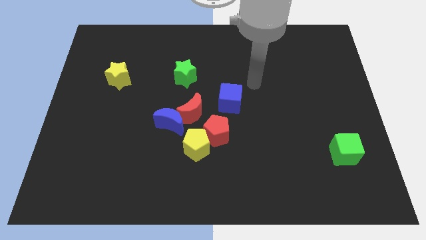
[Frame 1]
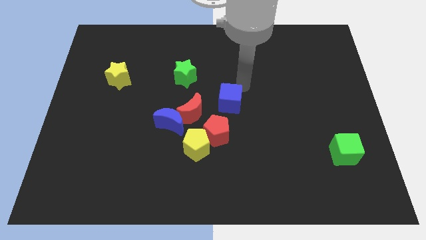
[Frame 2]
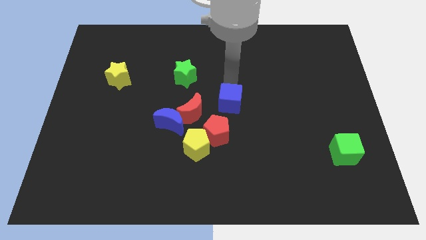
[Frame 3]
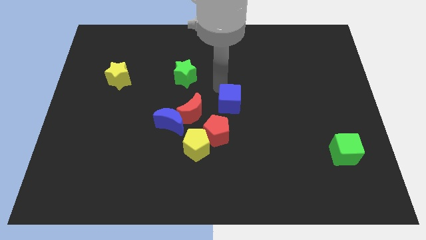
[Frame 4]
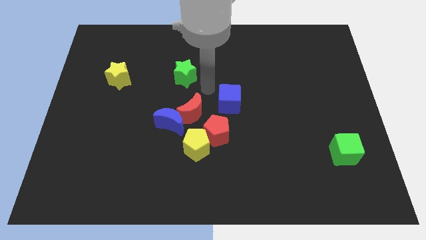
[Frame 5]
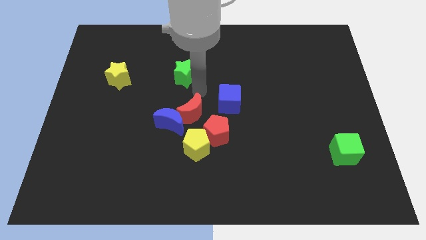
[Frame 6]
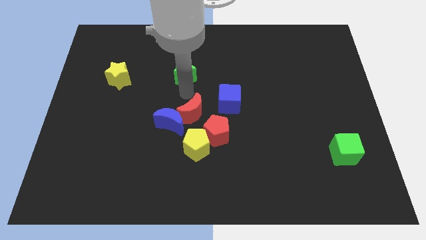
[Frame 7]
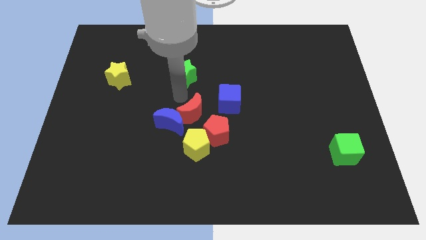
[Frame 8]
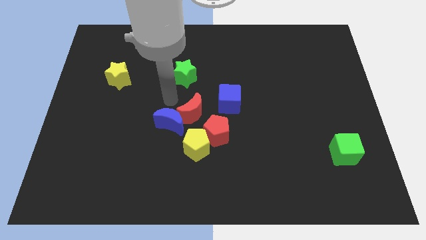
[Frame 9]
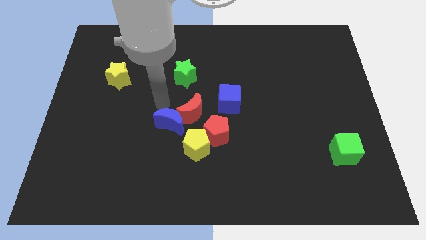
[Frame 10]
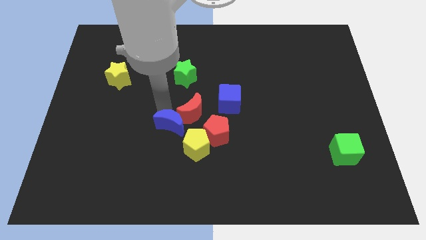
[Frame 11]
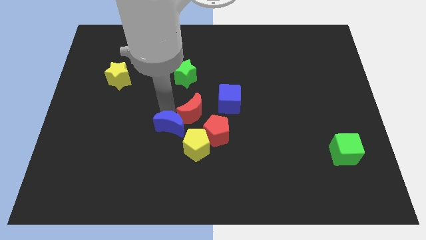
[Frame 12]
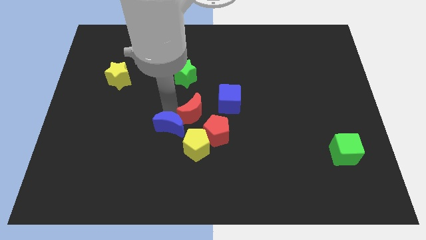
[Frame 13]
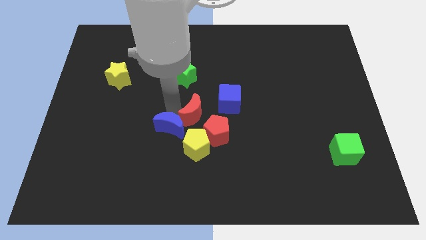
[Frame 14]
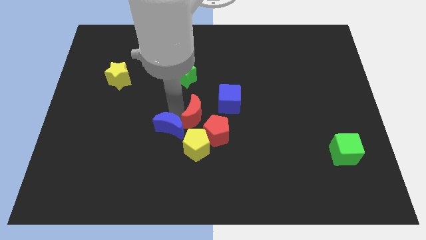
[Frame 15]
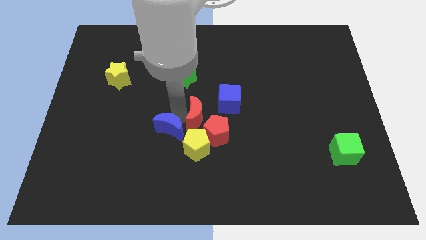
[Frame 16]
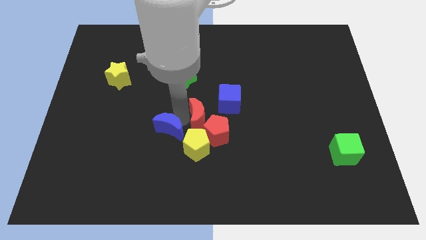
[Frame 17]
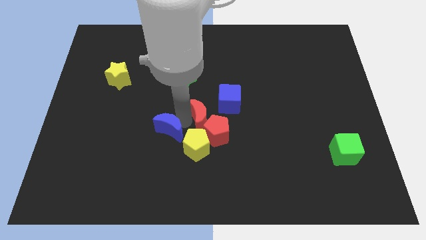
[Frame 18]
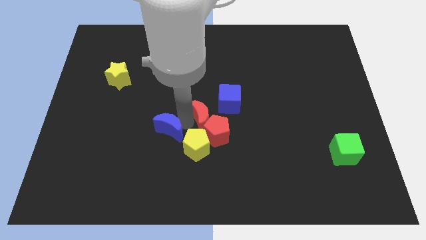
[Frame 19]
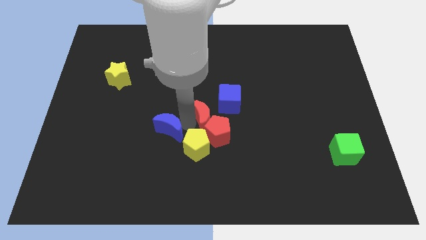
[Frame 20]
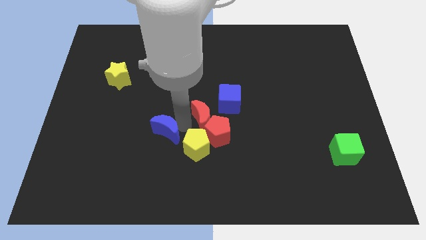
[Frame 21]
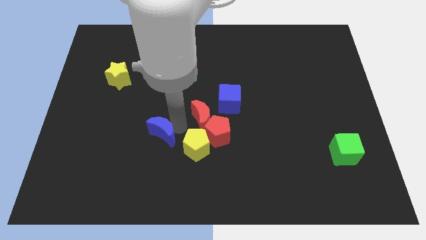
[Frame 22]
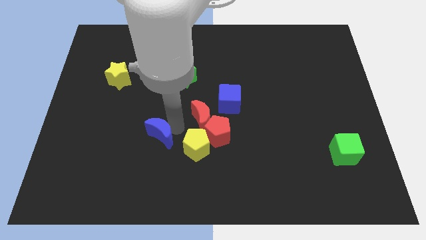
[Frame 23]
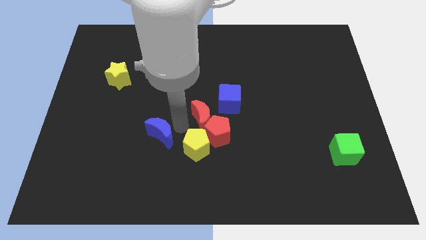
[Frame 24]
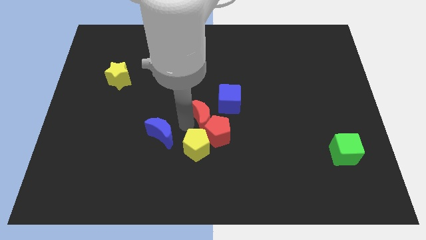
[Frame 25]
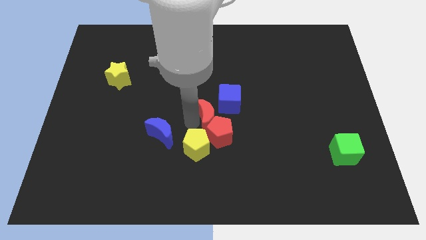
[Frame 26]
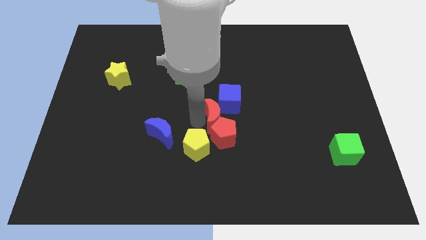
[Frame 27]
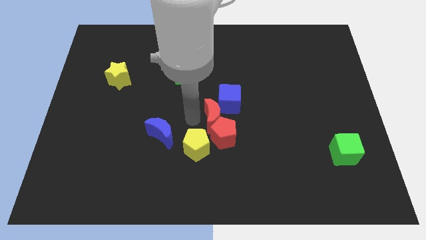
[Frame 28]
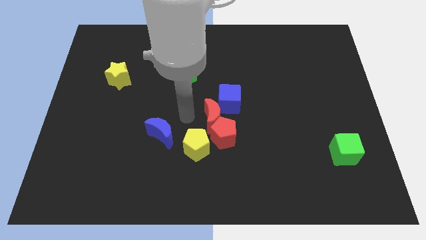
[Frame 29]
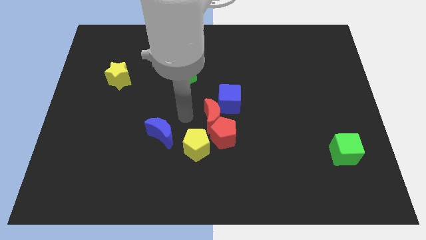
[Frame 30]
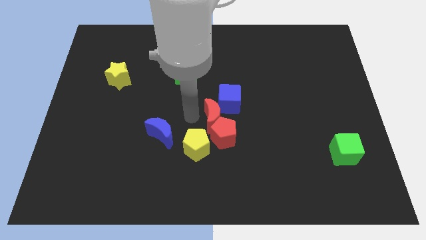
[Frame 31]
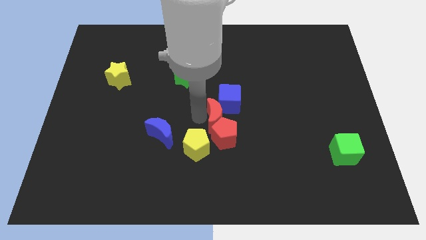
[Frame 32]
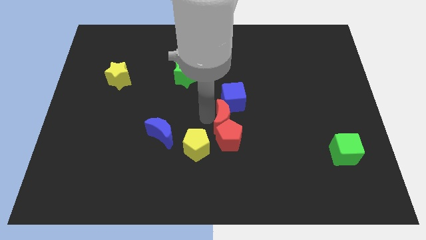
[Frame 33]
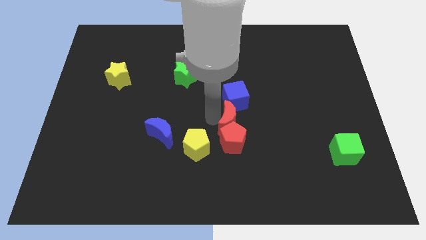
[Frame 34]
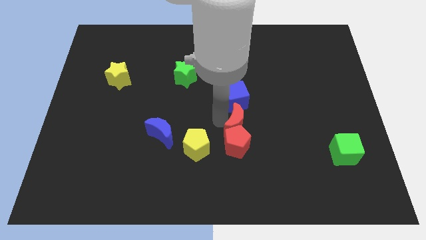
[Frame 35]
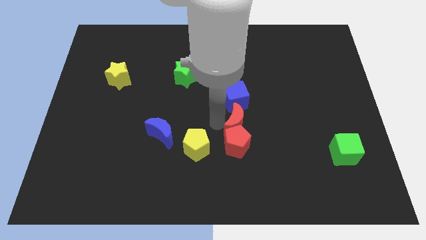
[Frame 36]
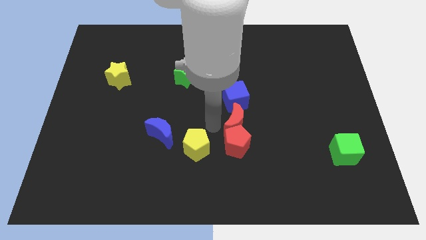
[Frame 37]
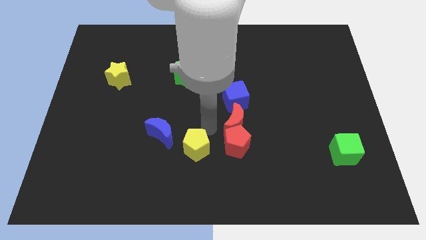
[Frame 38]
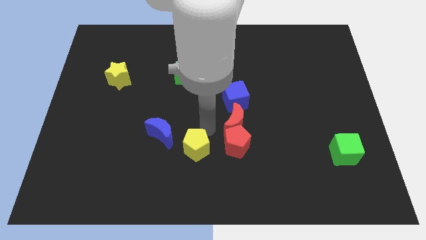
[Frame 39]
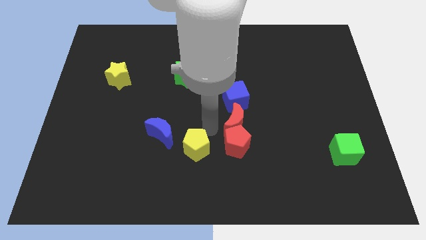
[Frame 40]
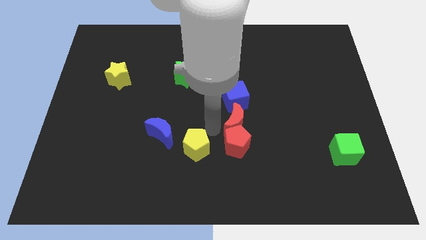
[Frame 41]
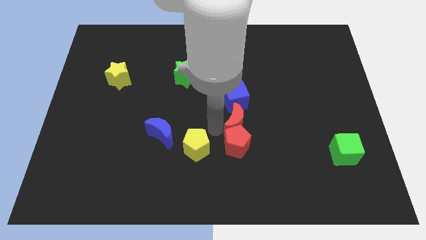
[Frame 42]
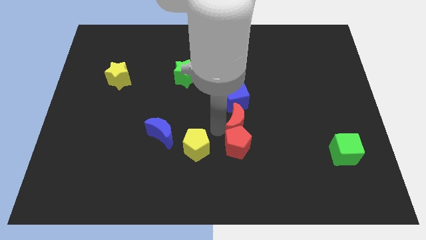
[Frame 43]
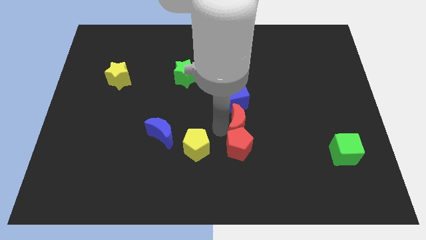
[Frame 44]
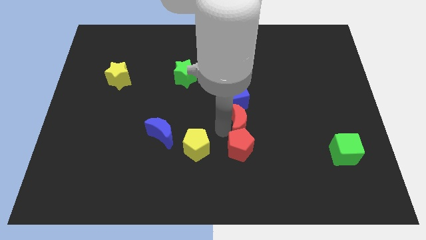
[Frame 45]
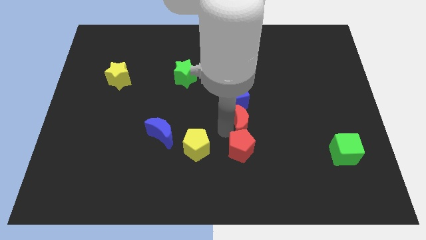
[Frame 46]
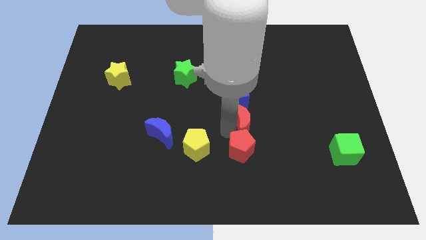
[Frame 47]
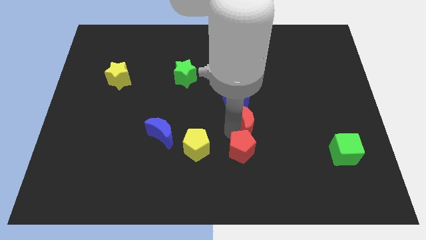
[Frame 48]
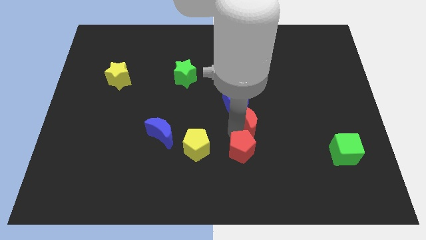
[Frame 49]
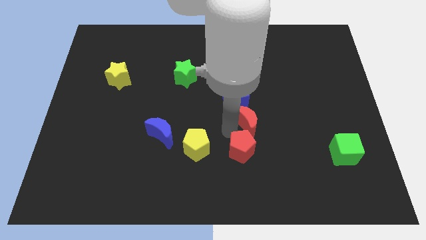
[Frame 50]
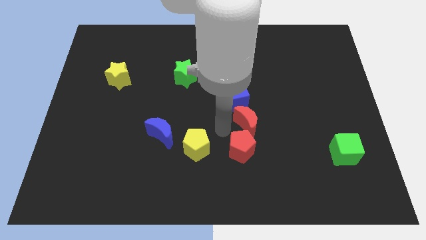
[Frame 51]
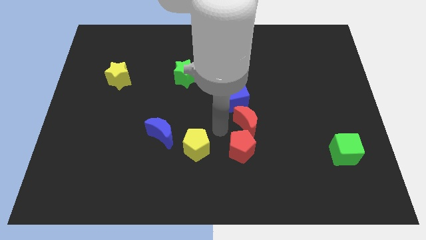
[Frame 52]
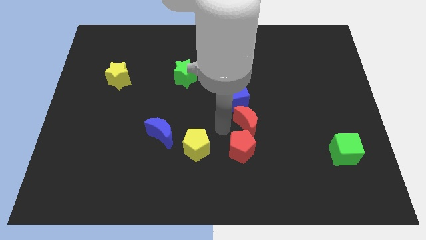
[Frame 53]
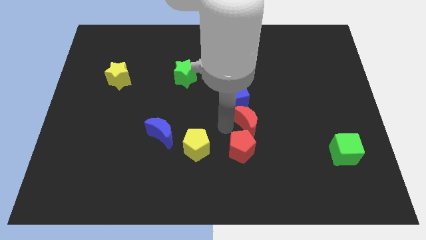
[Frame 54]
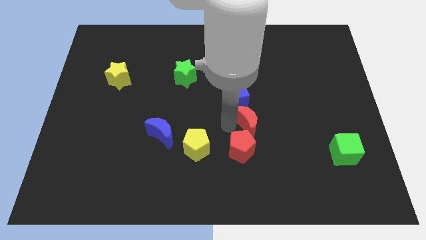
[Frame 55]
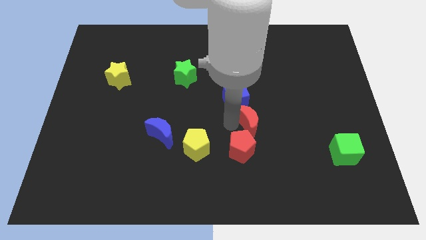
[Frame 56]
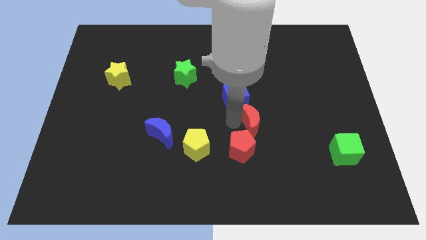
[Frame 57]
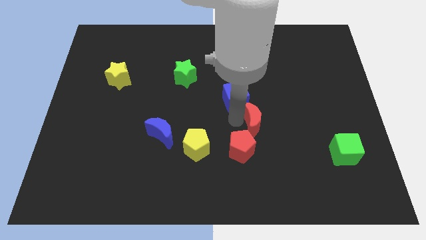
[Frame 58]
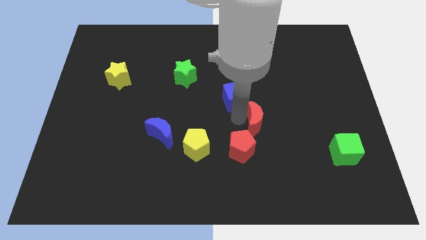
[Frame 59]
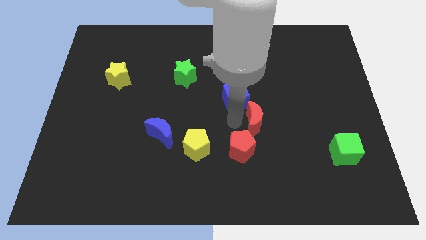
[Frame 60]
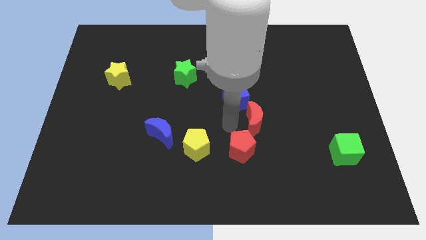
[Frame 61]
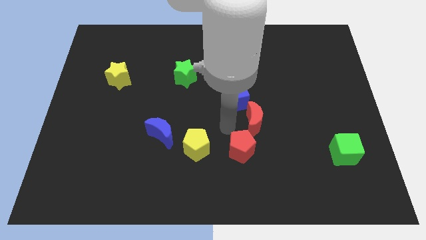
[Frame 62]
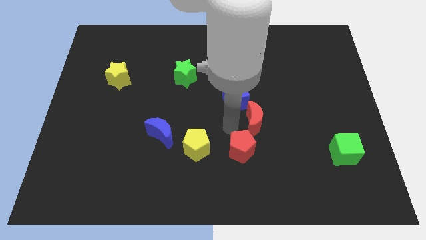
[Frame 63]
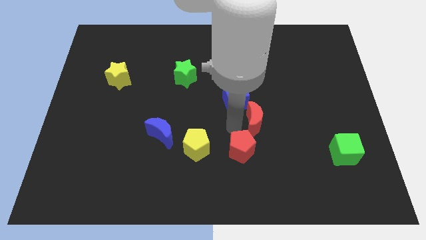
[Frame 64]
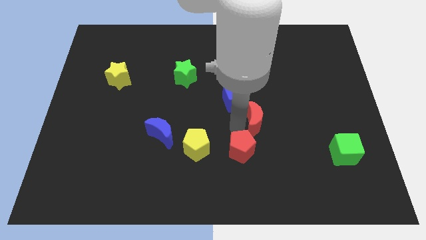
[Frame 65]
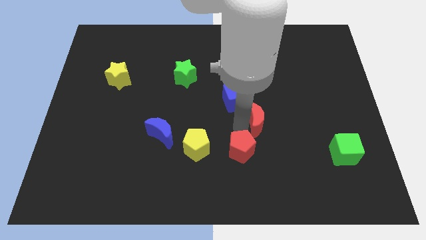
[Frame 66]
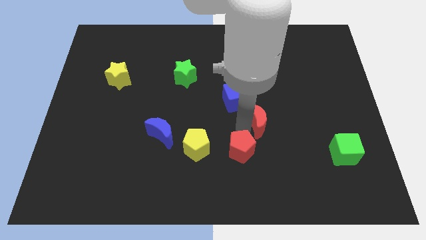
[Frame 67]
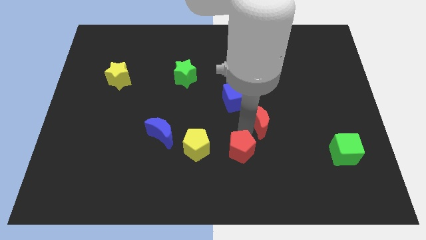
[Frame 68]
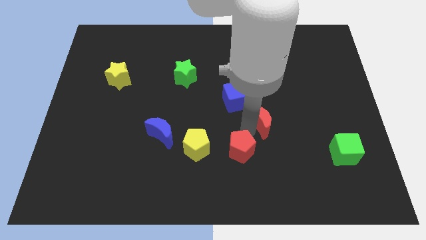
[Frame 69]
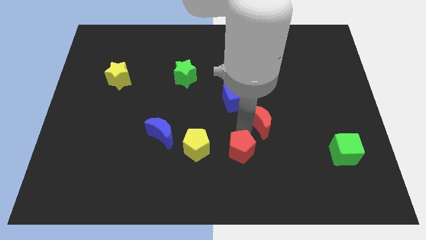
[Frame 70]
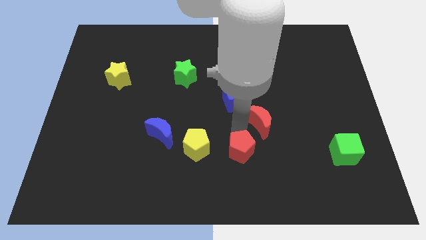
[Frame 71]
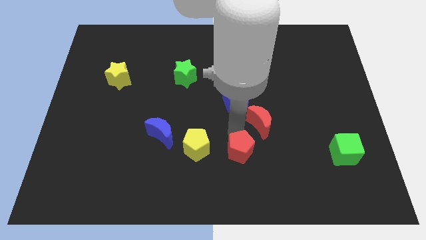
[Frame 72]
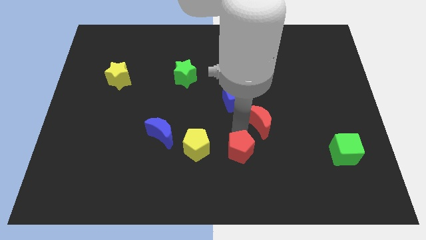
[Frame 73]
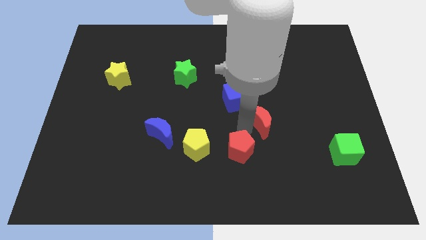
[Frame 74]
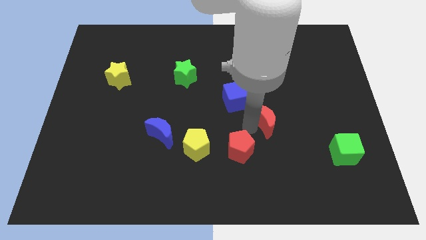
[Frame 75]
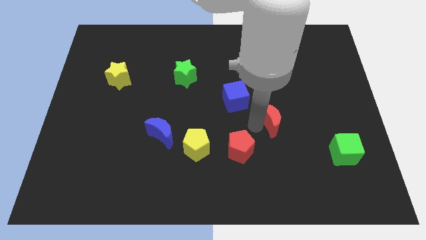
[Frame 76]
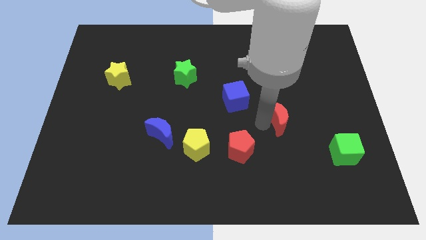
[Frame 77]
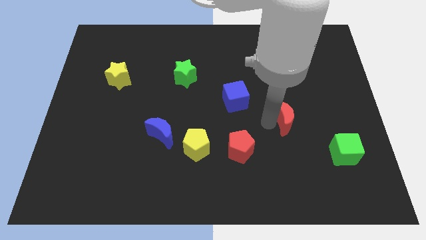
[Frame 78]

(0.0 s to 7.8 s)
slide the red moon to the right
